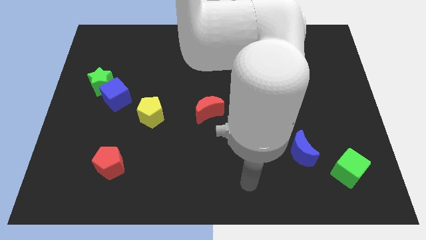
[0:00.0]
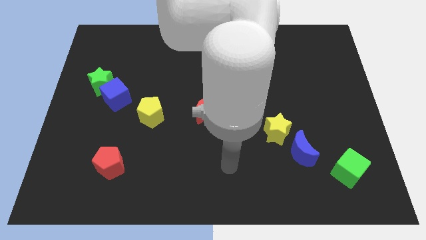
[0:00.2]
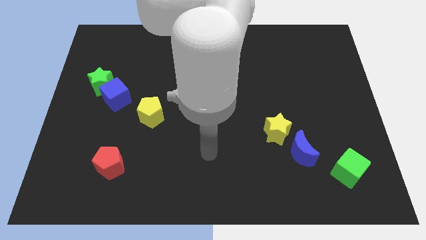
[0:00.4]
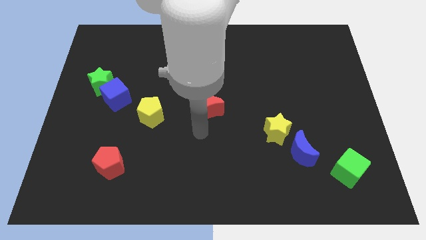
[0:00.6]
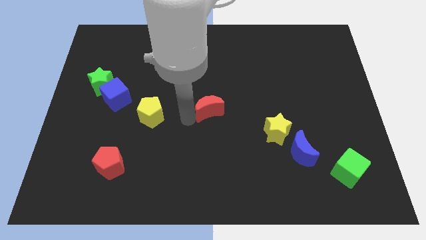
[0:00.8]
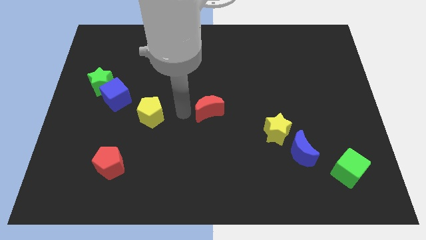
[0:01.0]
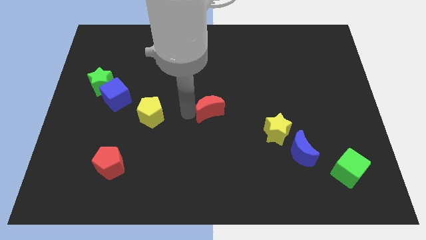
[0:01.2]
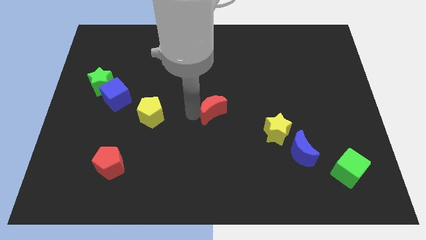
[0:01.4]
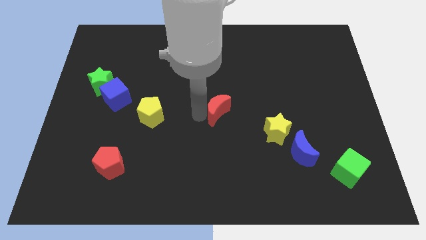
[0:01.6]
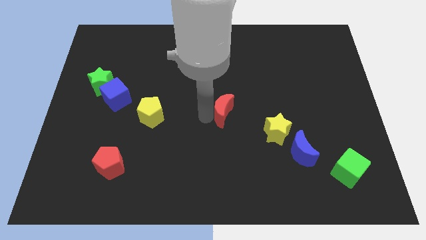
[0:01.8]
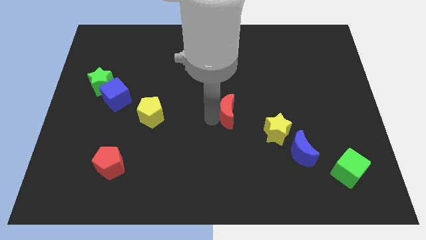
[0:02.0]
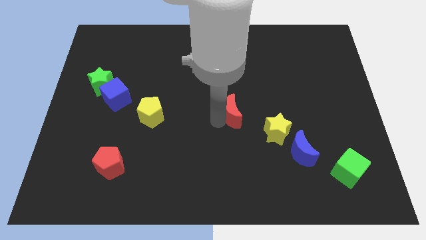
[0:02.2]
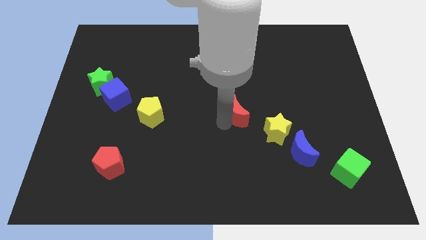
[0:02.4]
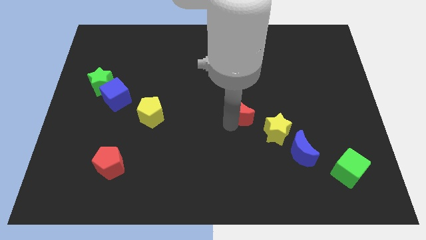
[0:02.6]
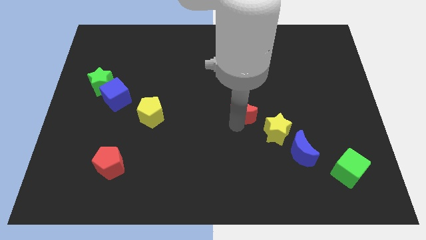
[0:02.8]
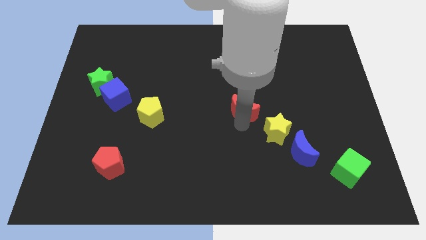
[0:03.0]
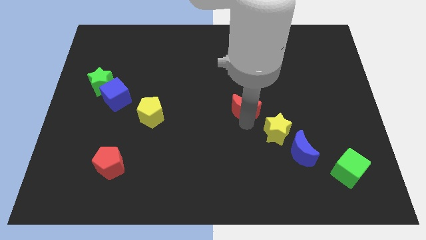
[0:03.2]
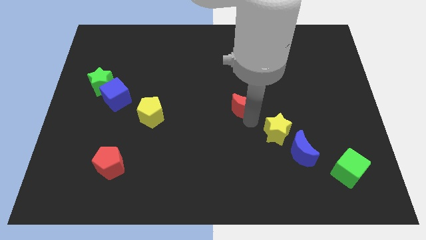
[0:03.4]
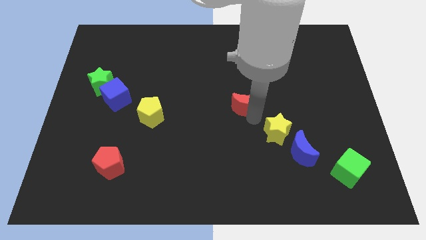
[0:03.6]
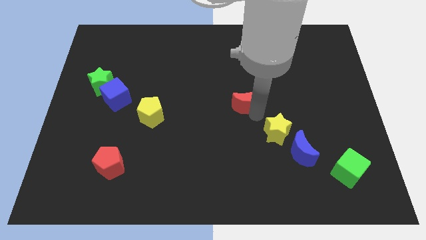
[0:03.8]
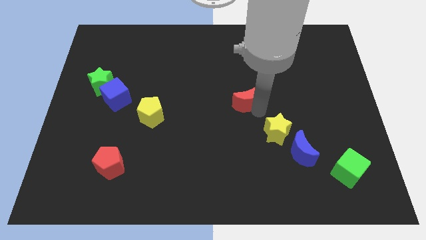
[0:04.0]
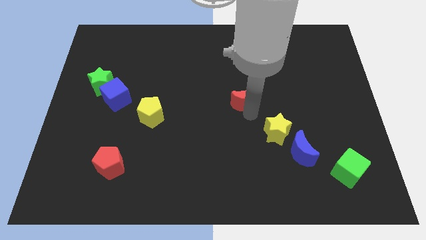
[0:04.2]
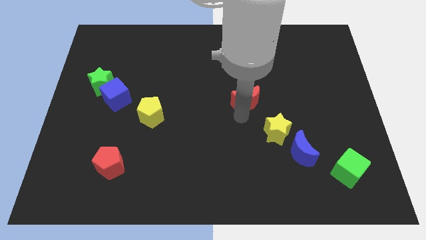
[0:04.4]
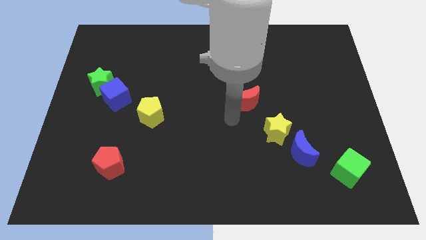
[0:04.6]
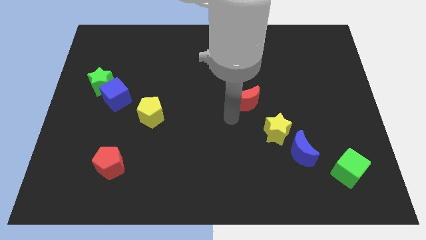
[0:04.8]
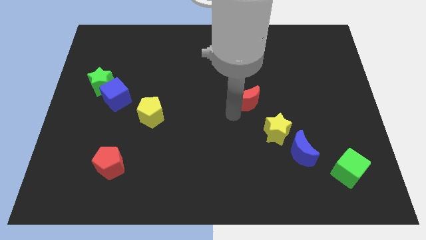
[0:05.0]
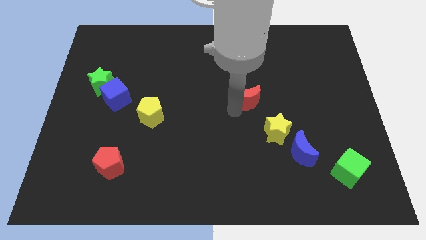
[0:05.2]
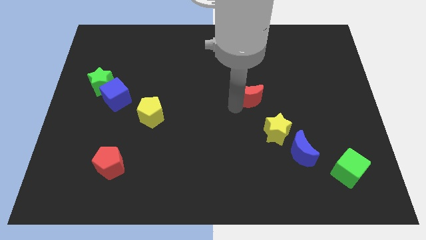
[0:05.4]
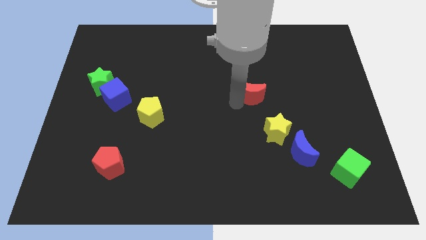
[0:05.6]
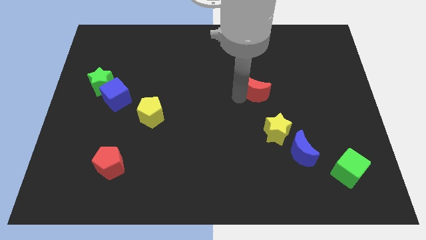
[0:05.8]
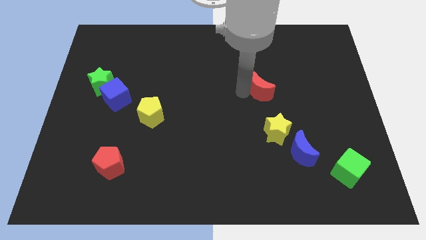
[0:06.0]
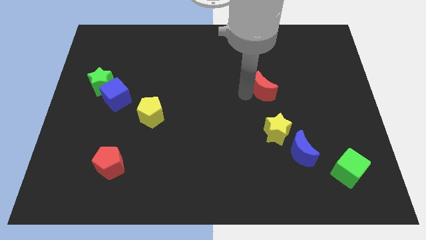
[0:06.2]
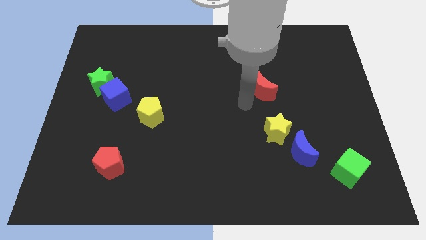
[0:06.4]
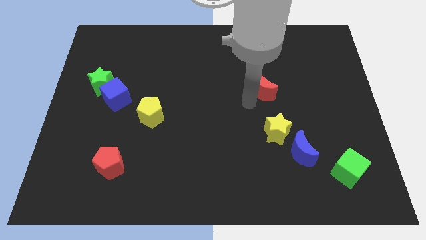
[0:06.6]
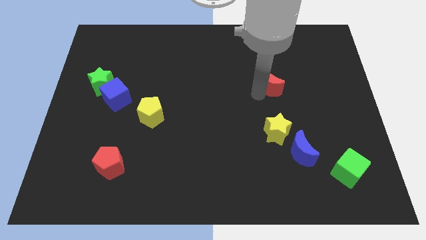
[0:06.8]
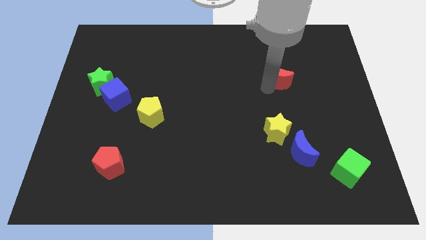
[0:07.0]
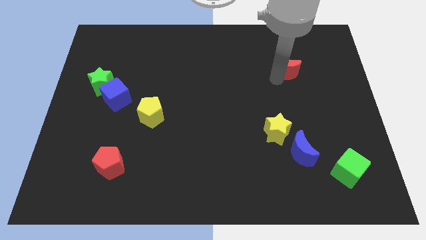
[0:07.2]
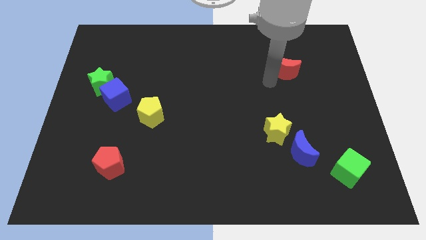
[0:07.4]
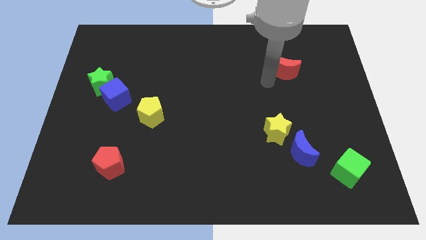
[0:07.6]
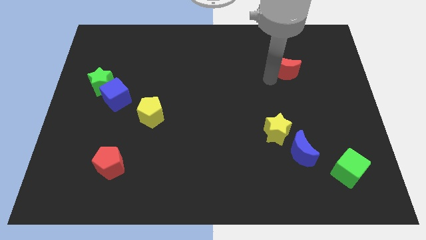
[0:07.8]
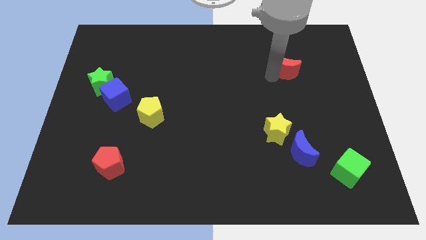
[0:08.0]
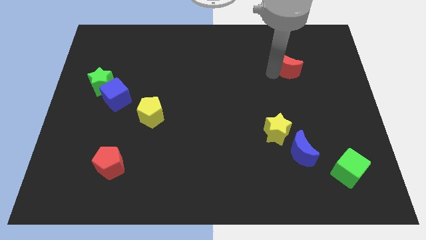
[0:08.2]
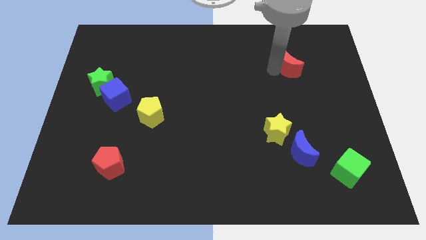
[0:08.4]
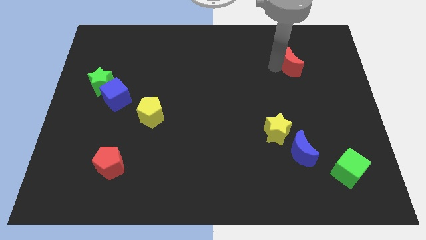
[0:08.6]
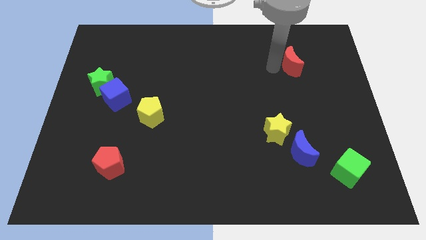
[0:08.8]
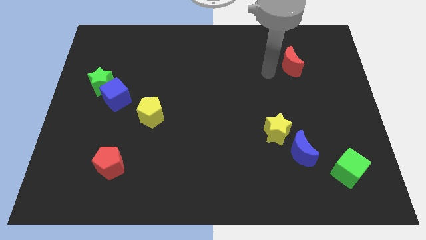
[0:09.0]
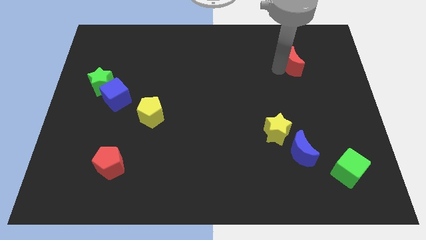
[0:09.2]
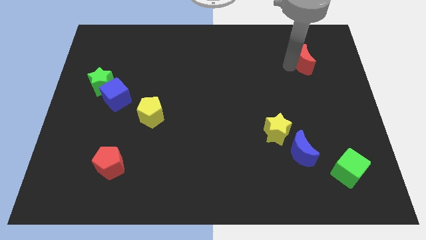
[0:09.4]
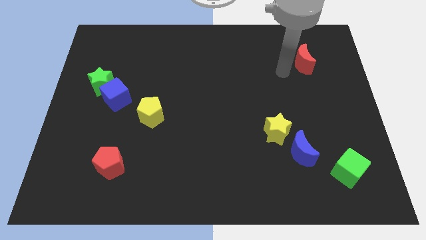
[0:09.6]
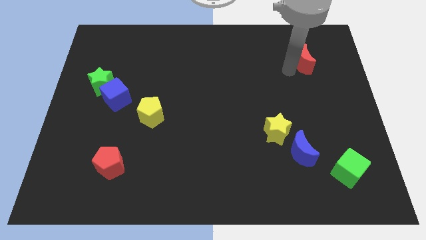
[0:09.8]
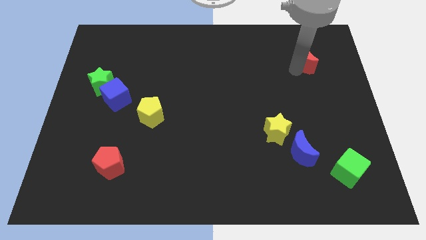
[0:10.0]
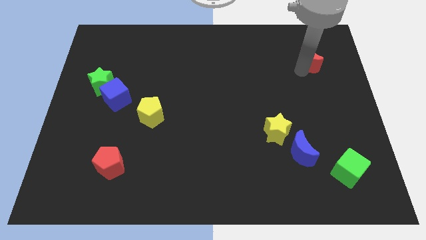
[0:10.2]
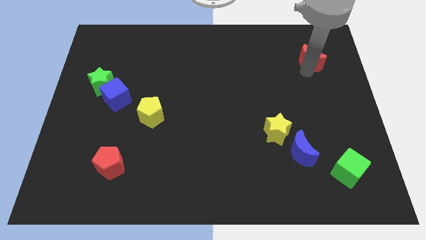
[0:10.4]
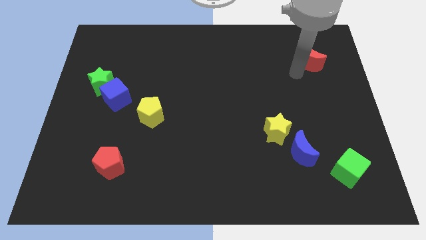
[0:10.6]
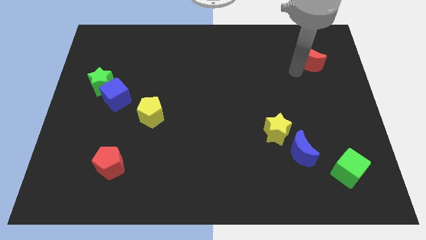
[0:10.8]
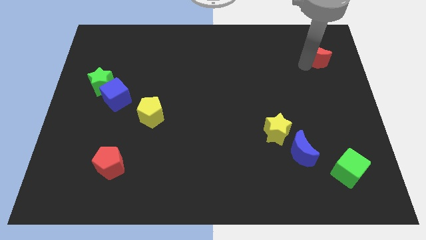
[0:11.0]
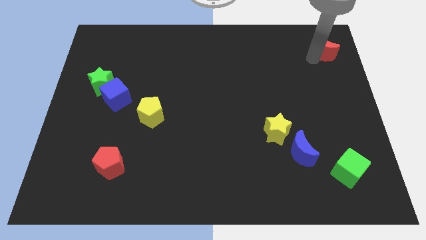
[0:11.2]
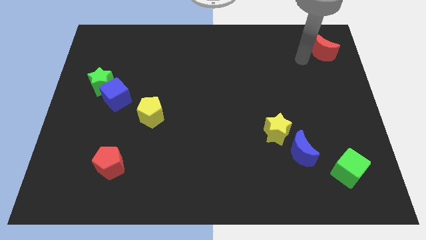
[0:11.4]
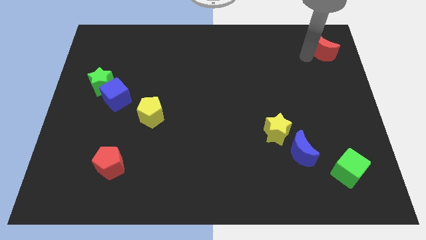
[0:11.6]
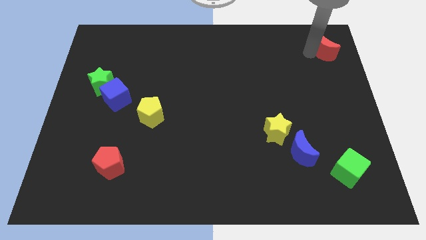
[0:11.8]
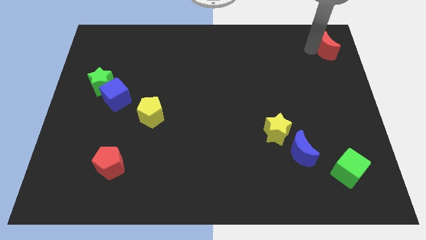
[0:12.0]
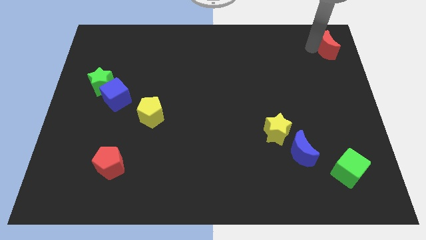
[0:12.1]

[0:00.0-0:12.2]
put the red moon to the top right of the board
